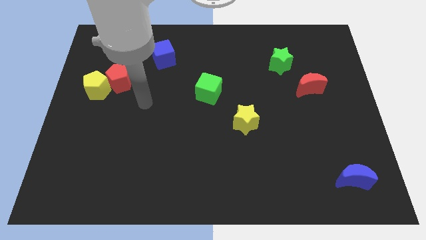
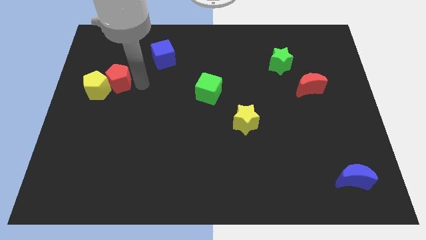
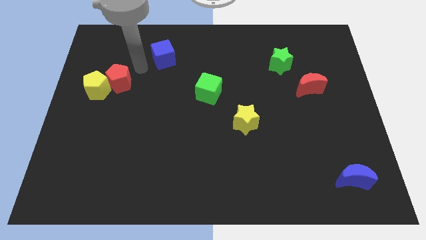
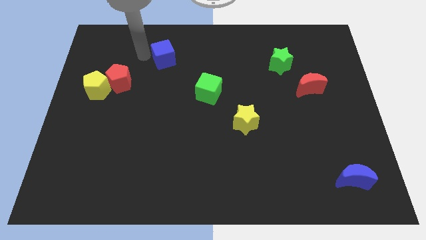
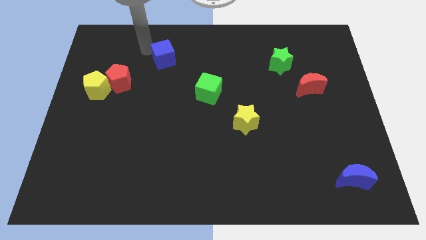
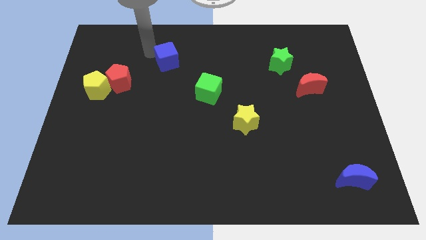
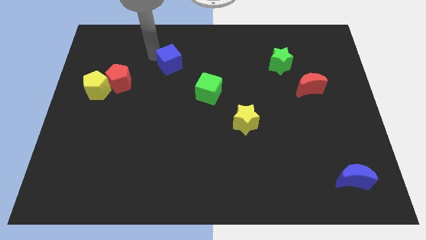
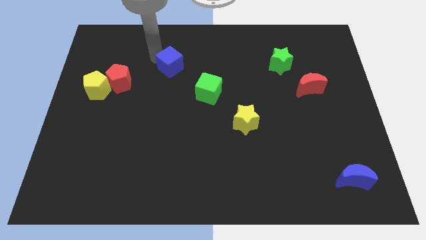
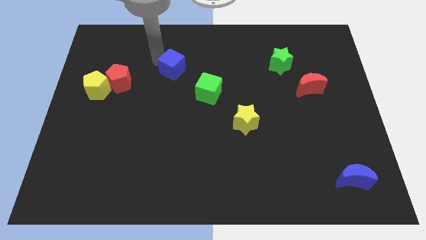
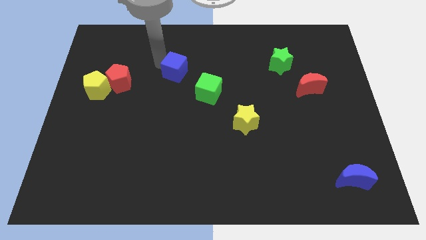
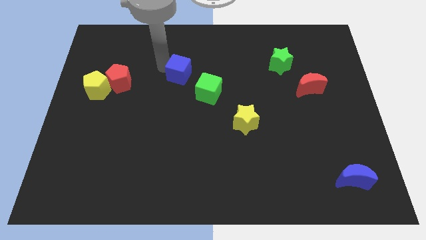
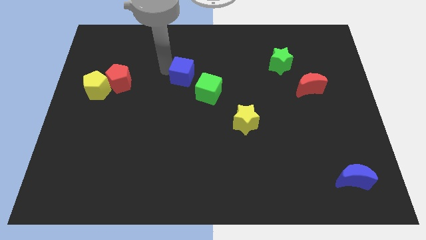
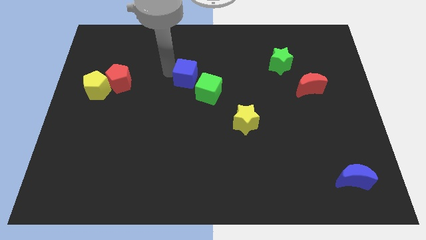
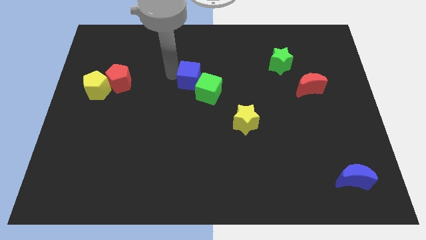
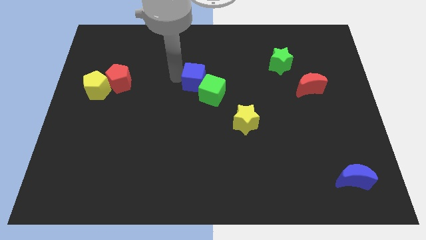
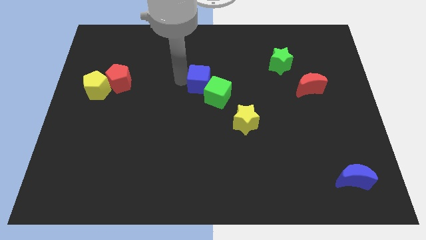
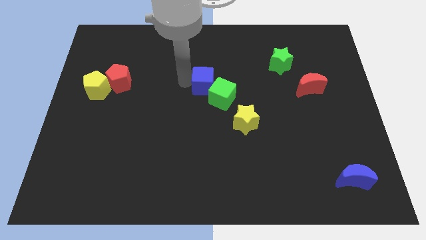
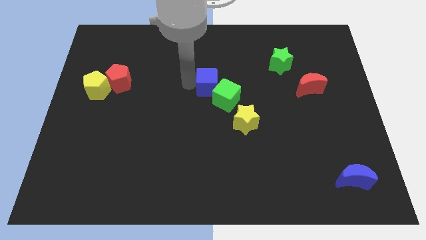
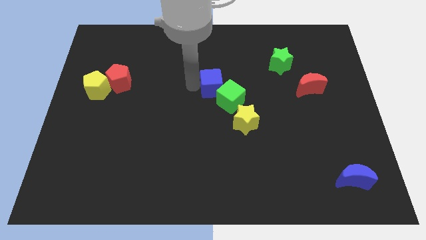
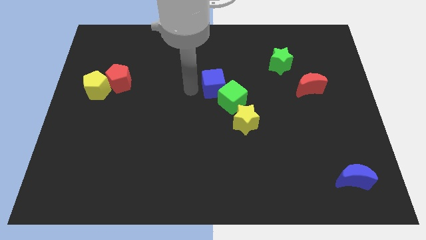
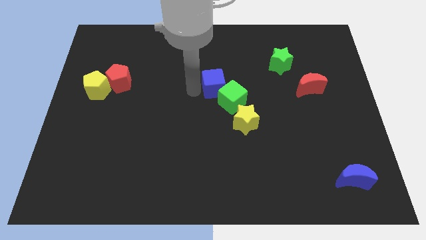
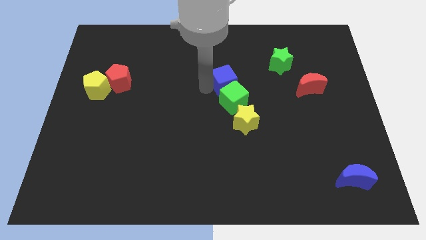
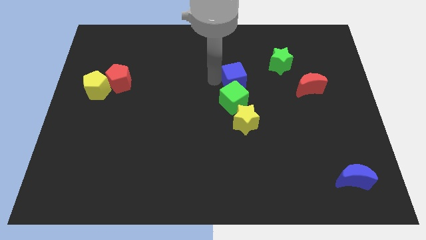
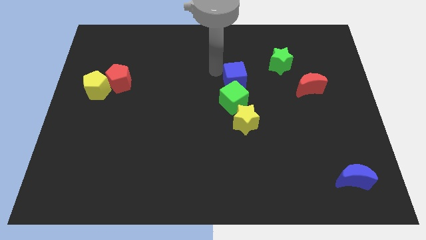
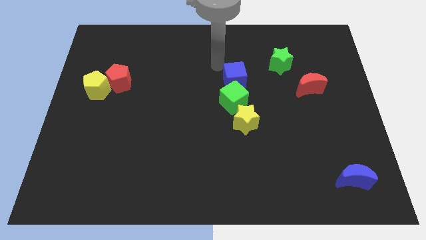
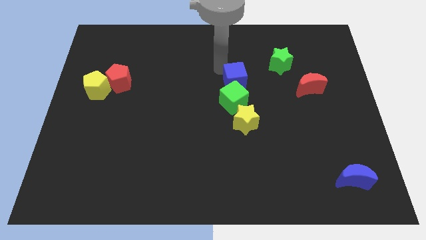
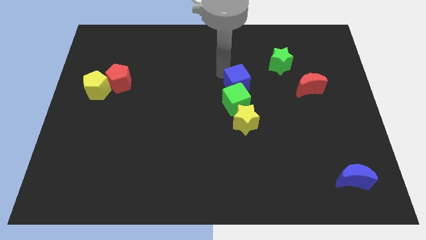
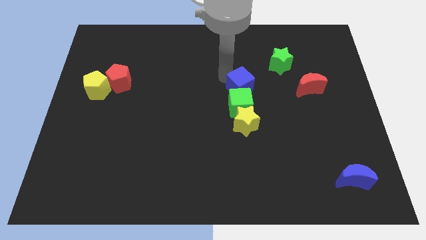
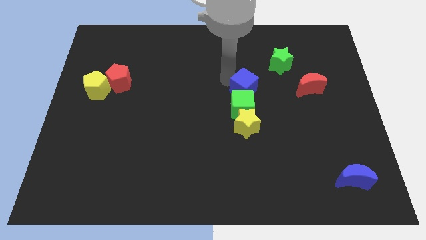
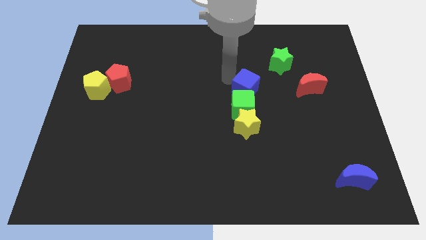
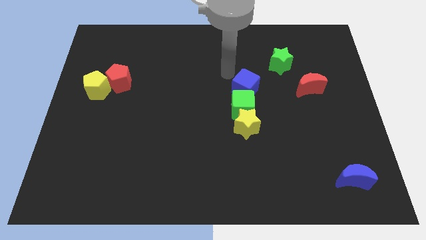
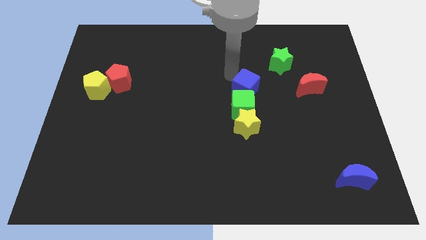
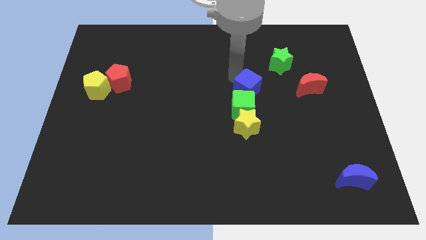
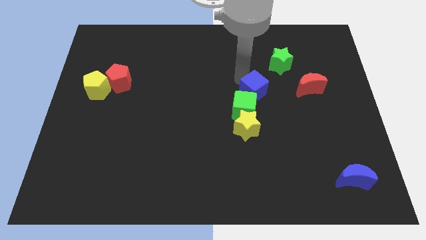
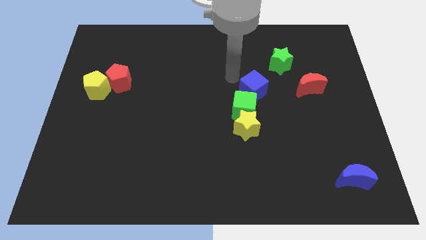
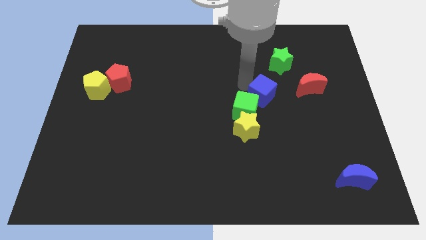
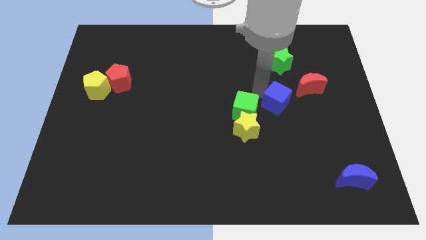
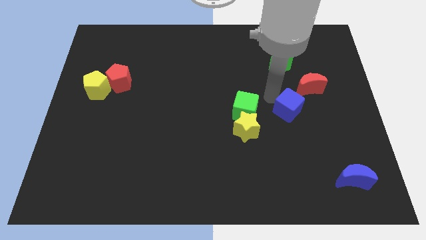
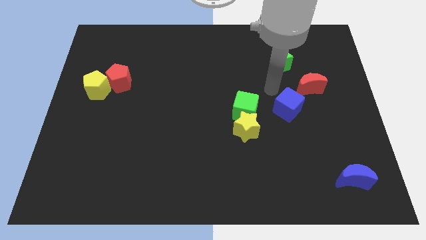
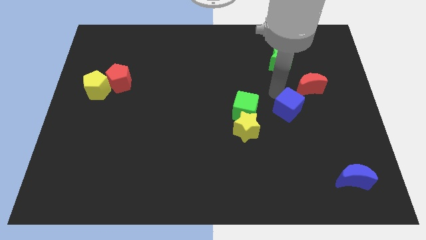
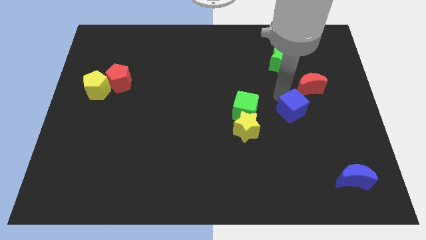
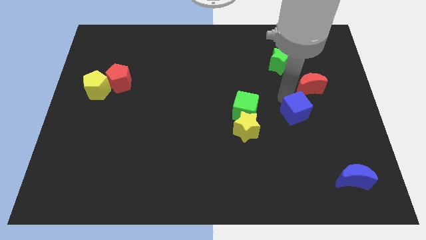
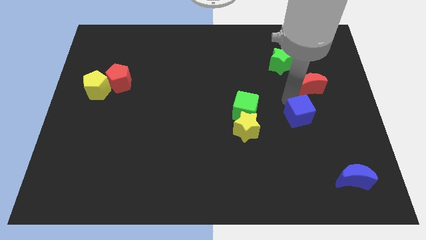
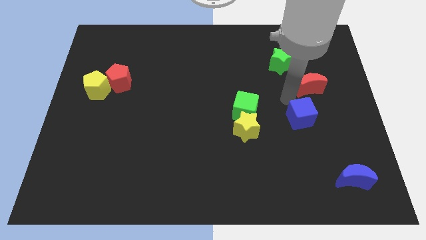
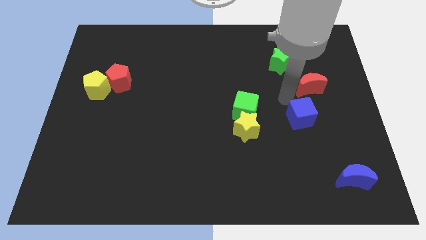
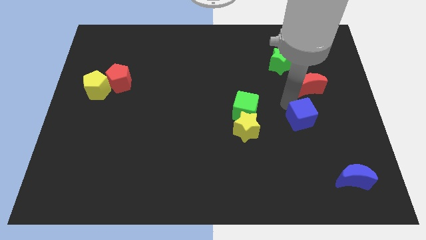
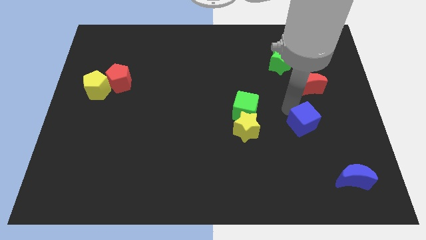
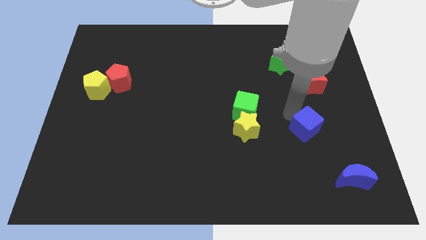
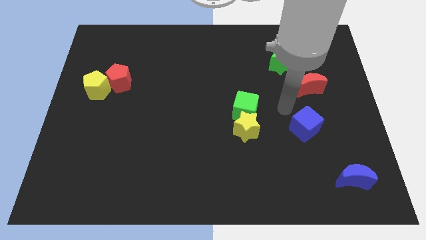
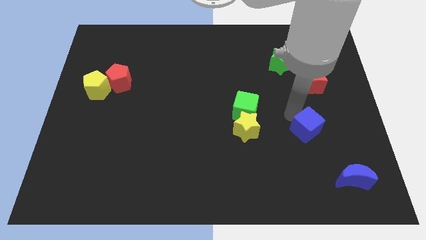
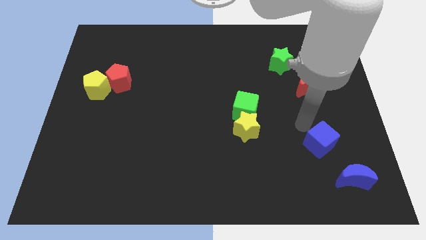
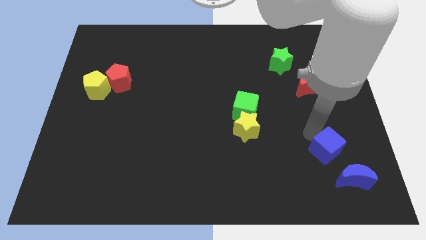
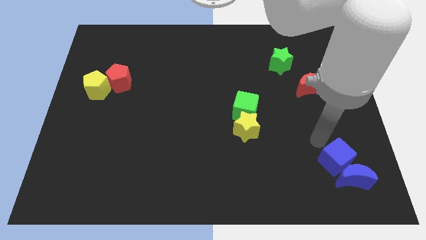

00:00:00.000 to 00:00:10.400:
slide the blue cube close to the blue moon

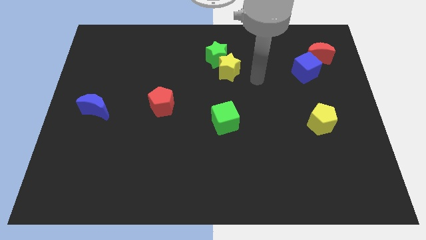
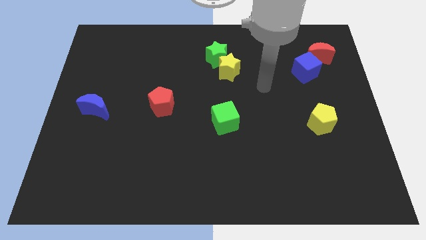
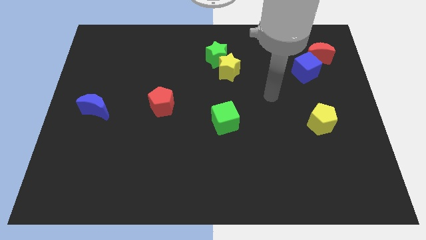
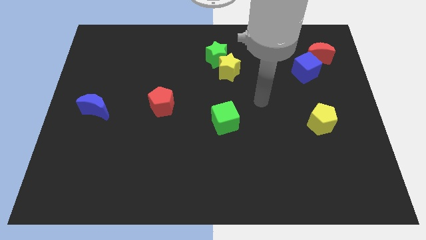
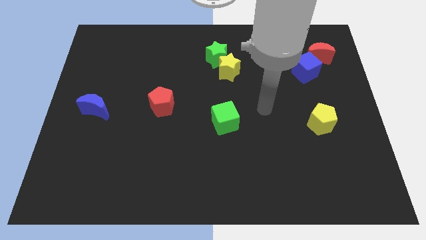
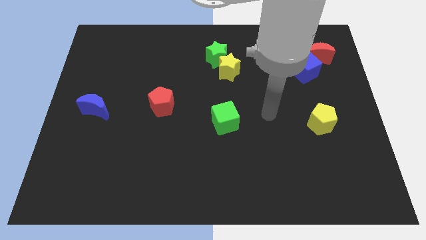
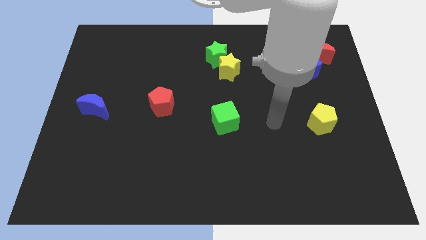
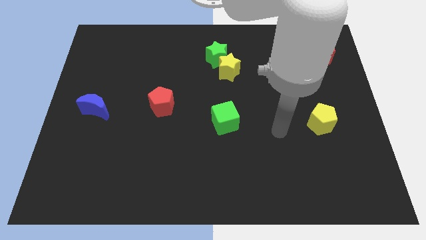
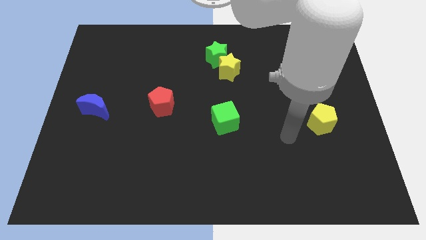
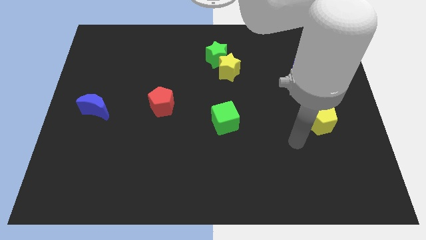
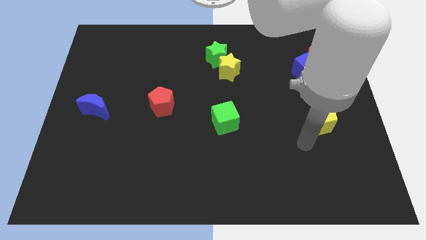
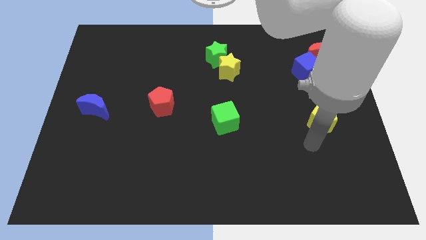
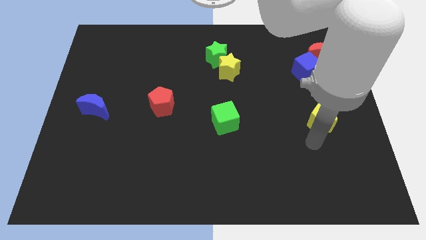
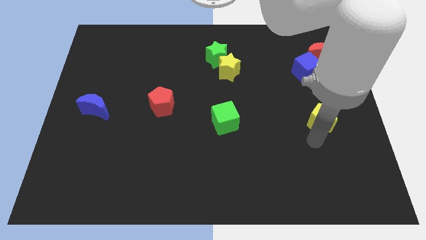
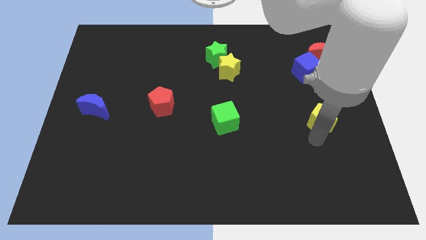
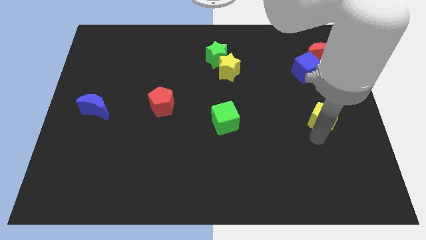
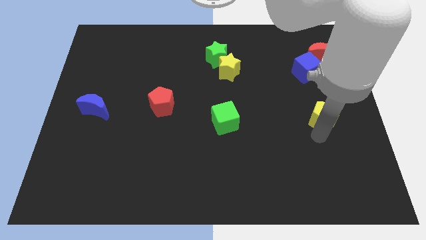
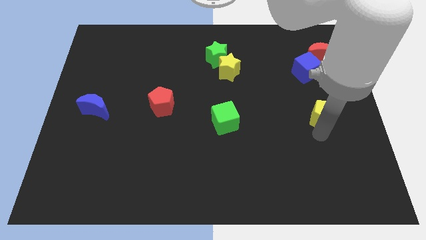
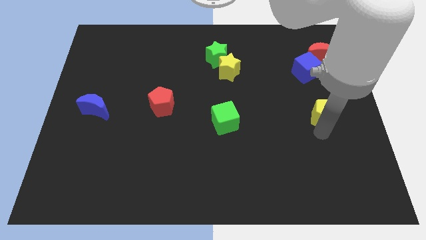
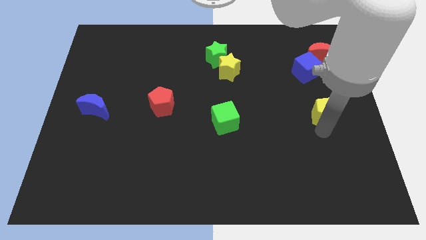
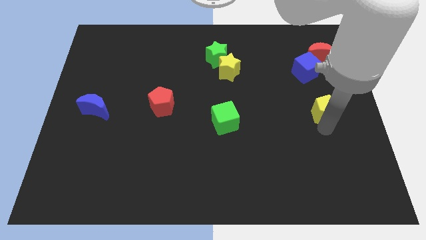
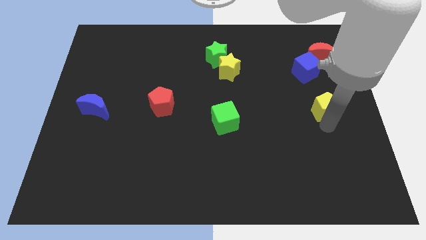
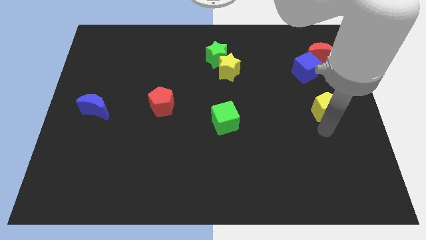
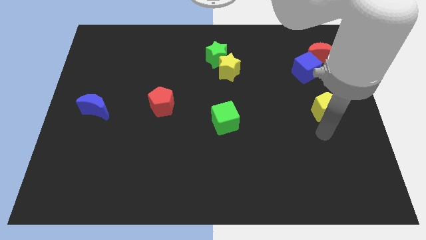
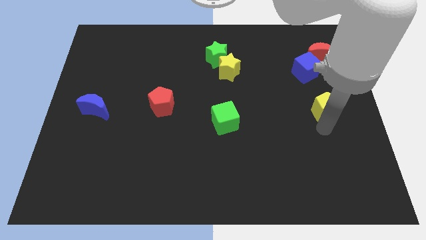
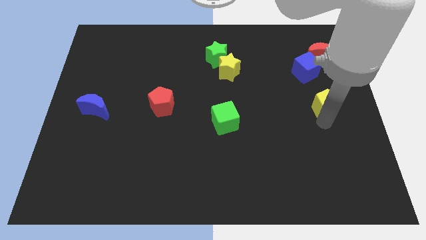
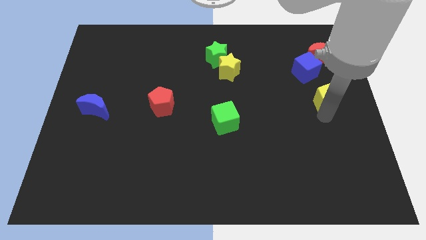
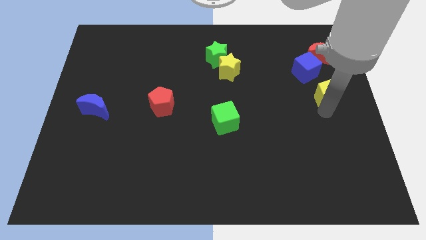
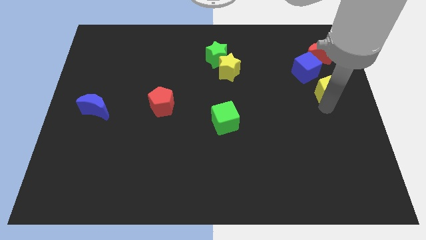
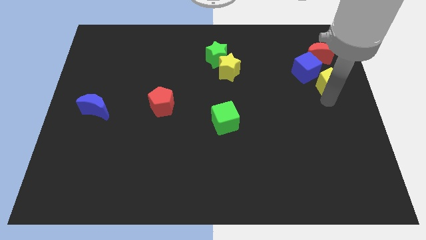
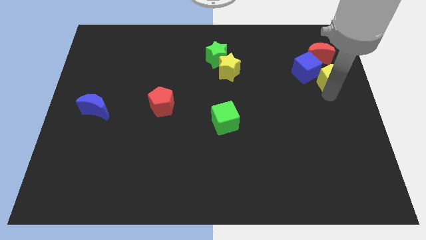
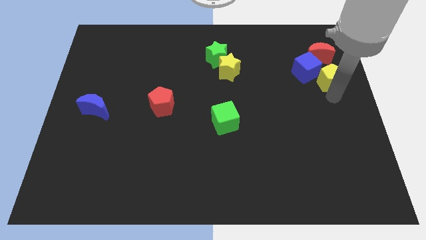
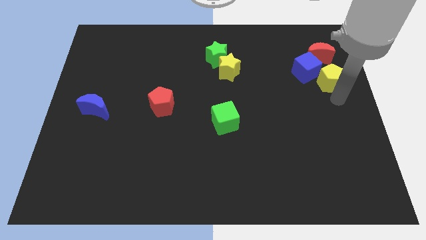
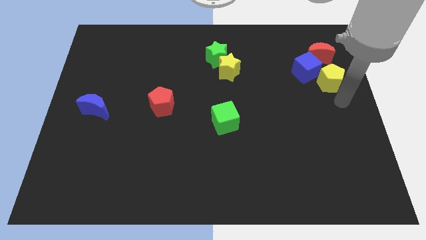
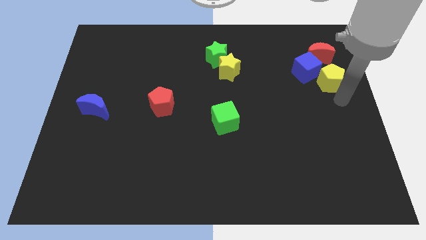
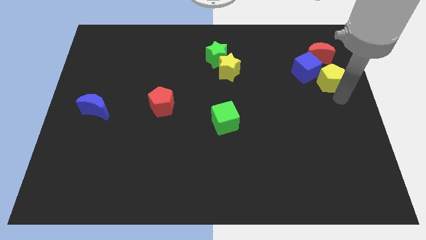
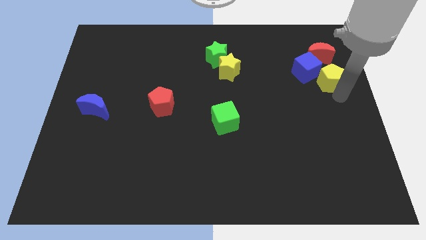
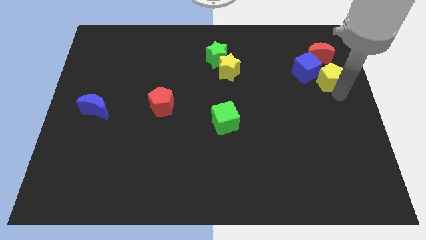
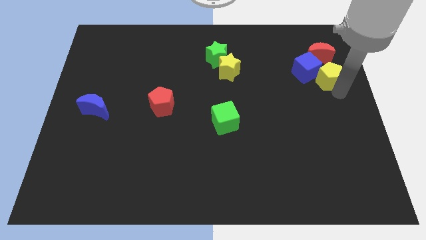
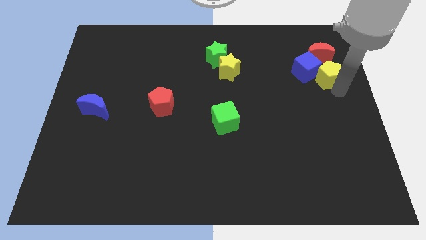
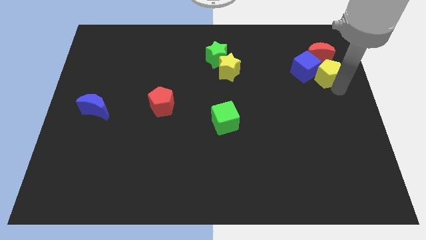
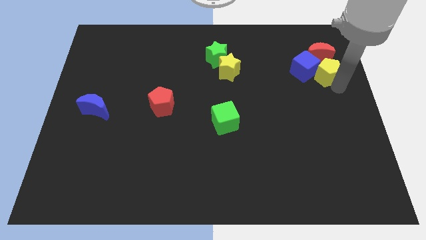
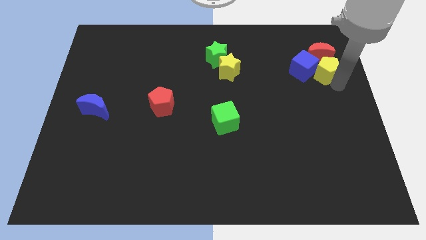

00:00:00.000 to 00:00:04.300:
put the yellow pentagon towards the red moon
